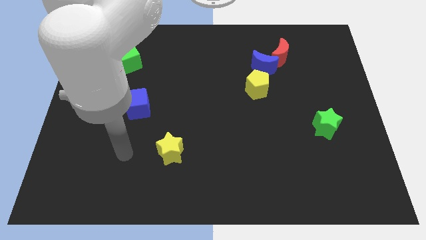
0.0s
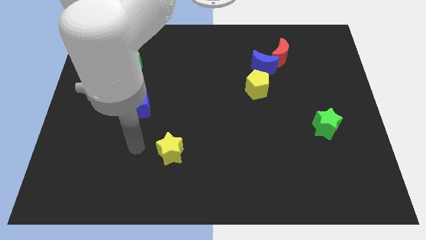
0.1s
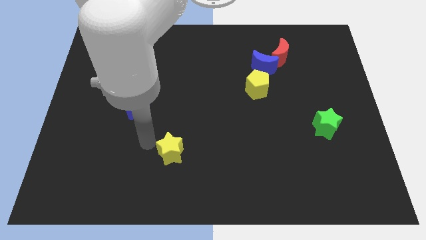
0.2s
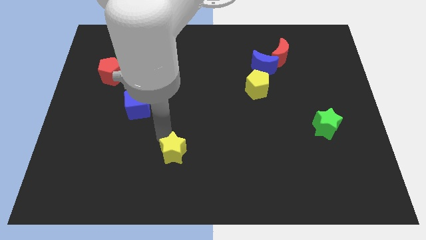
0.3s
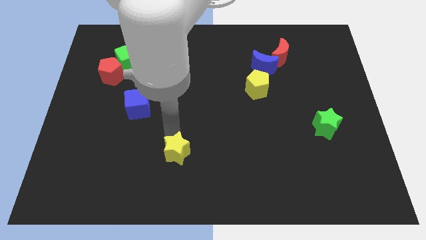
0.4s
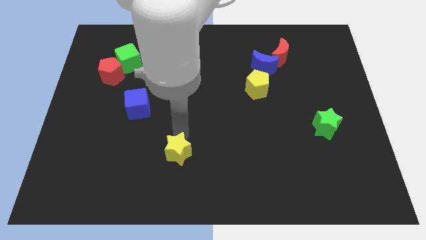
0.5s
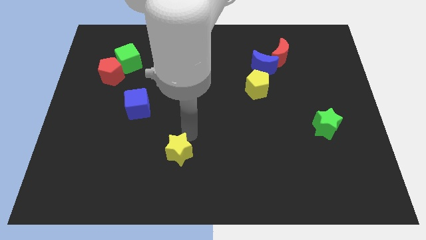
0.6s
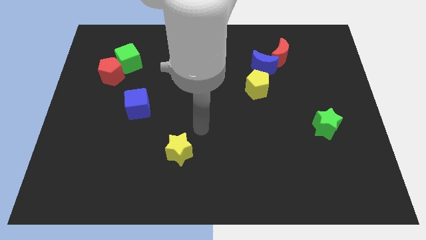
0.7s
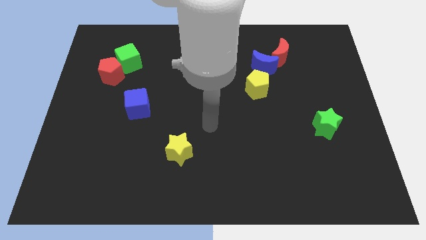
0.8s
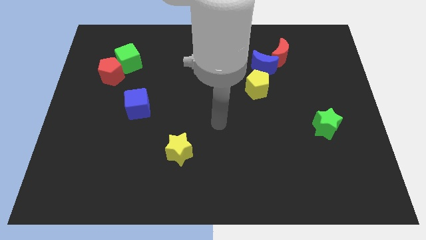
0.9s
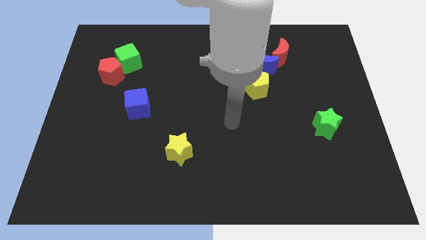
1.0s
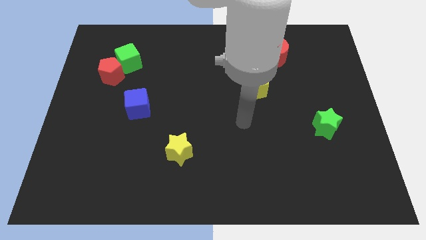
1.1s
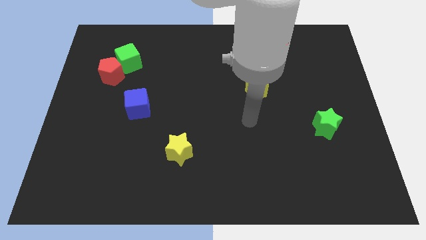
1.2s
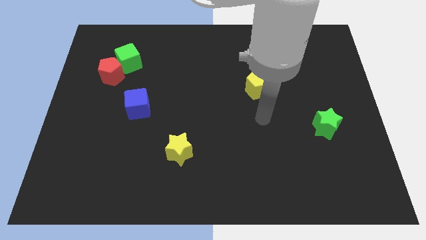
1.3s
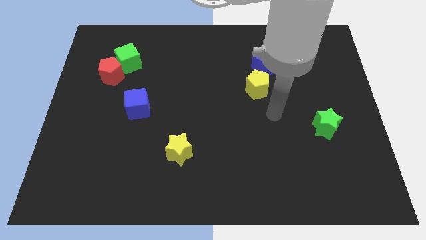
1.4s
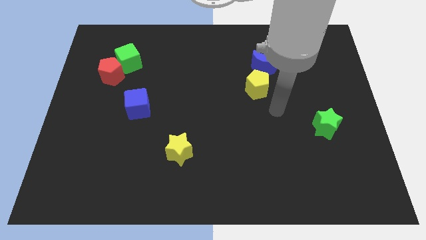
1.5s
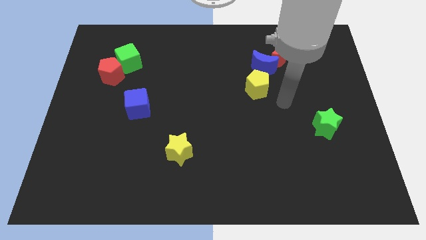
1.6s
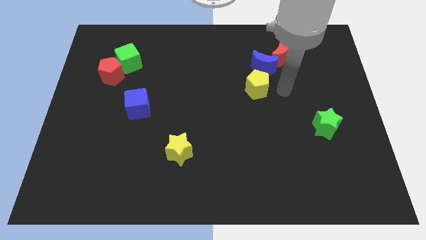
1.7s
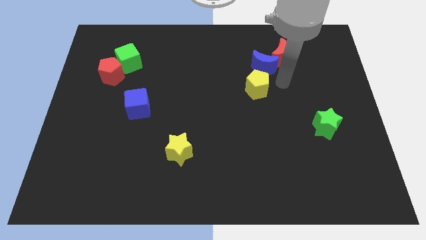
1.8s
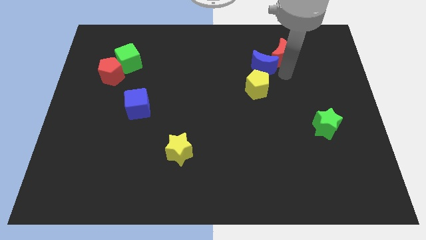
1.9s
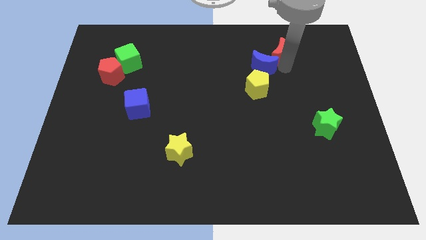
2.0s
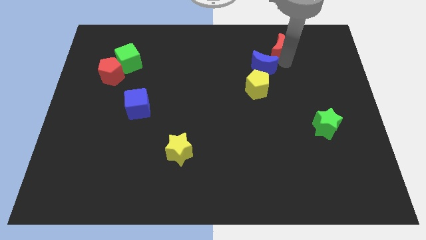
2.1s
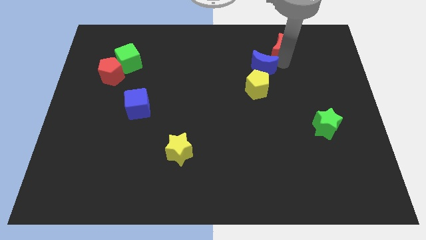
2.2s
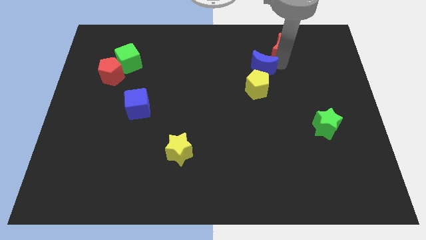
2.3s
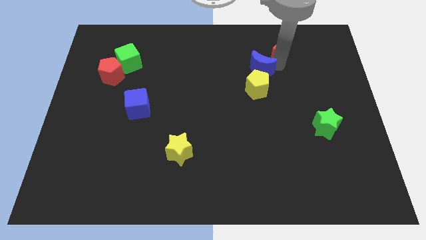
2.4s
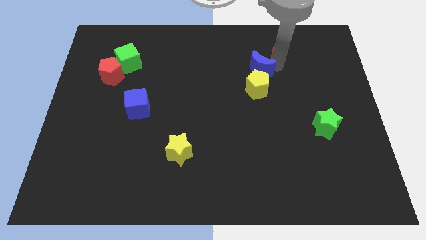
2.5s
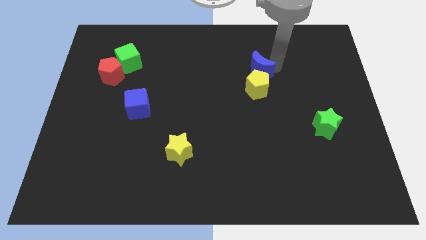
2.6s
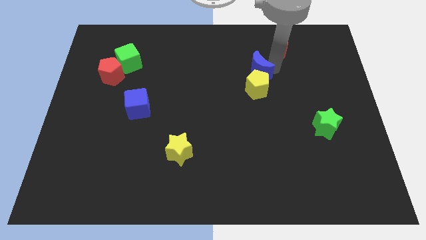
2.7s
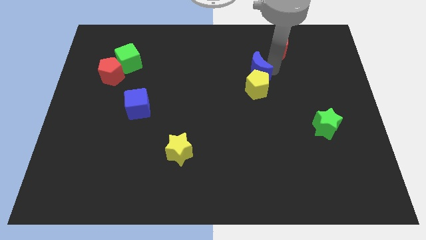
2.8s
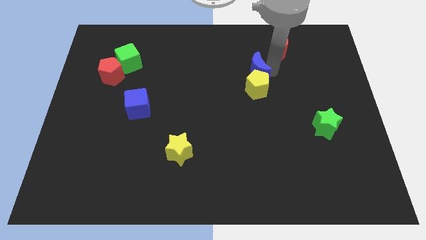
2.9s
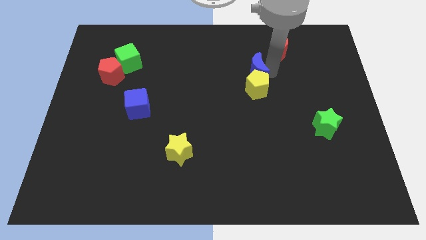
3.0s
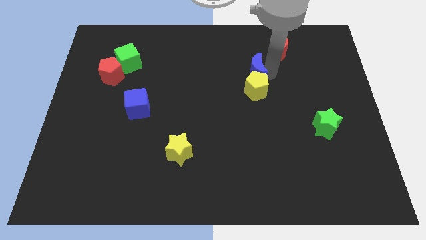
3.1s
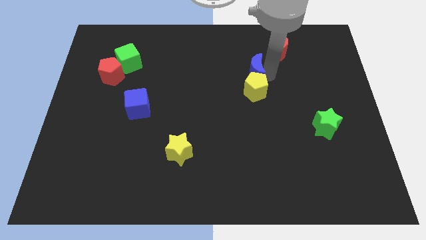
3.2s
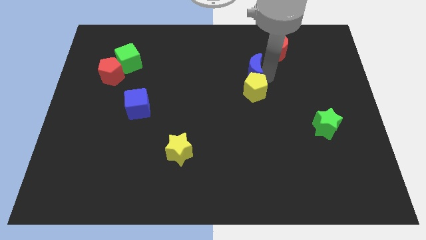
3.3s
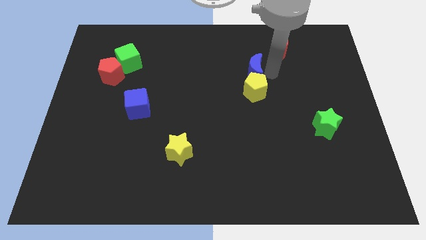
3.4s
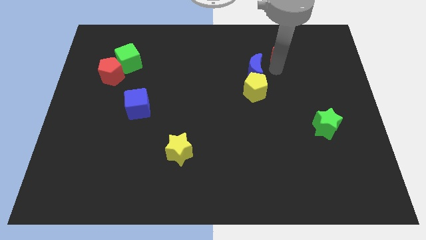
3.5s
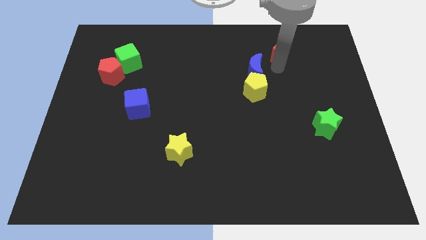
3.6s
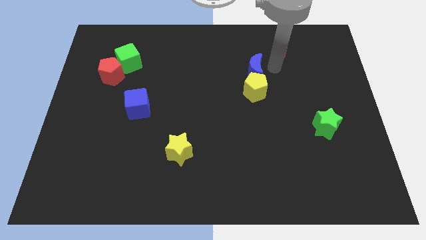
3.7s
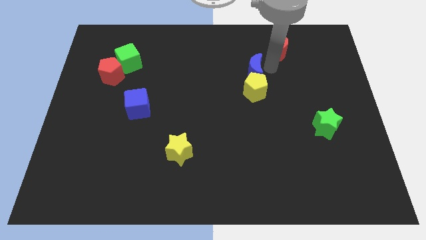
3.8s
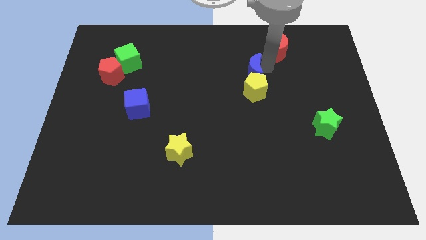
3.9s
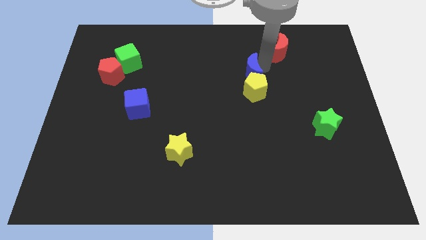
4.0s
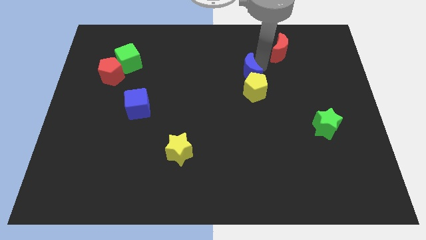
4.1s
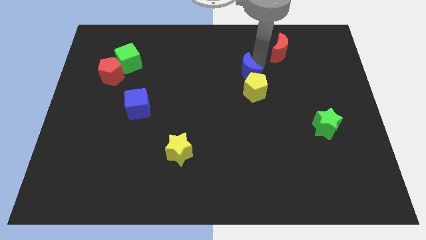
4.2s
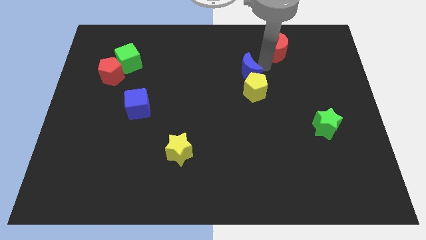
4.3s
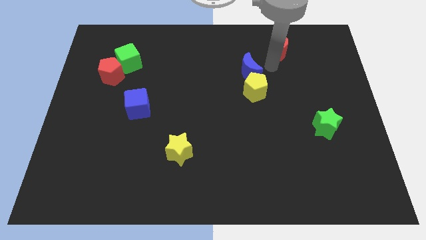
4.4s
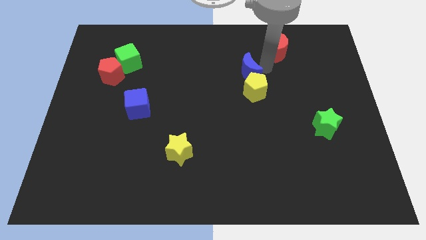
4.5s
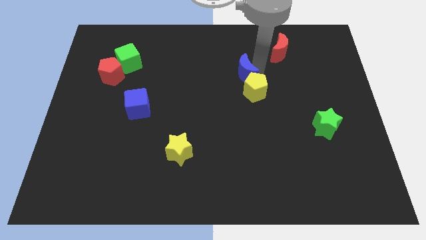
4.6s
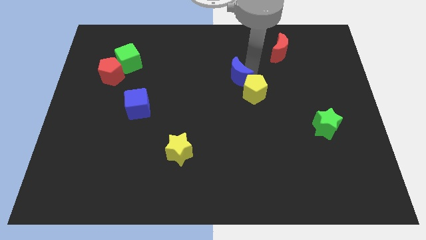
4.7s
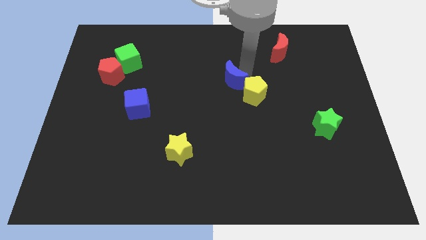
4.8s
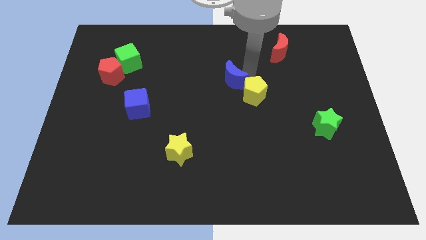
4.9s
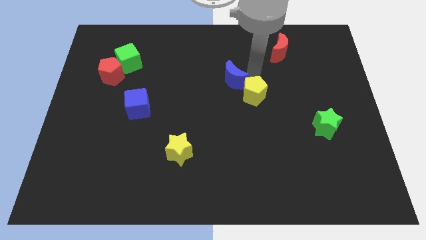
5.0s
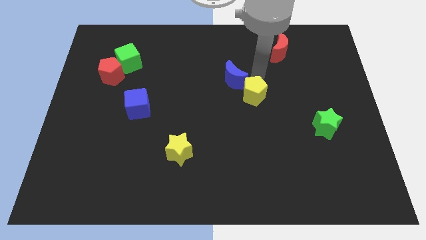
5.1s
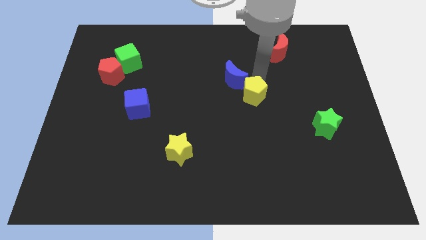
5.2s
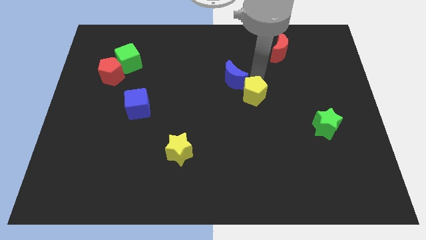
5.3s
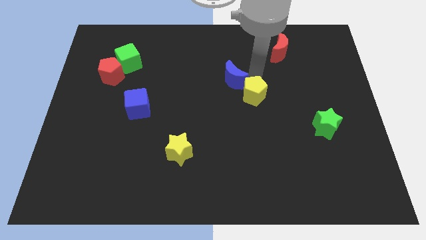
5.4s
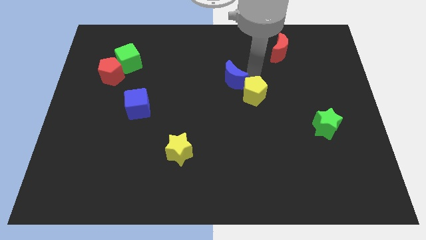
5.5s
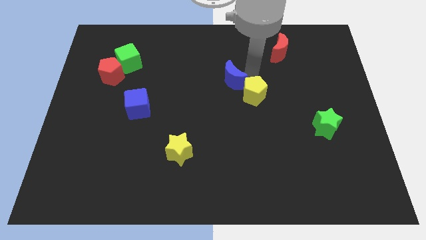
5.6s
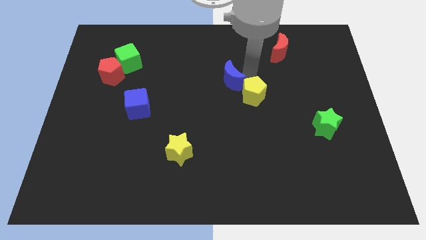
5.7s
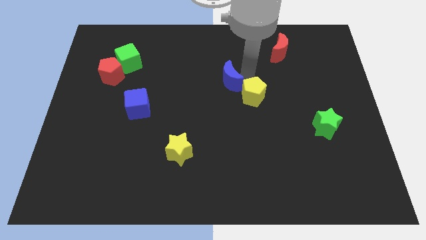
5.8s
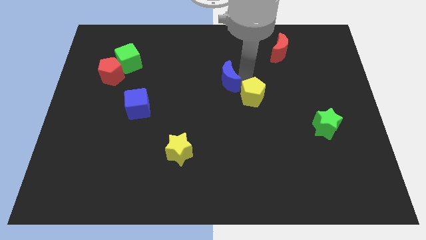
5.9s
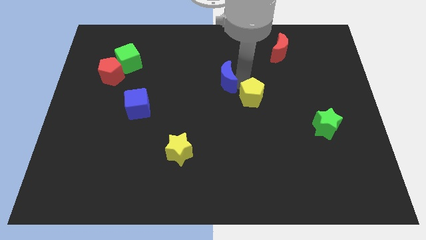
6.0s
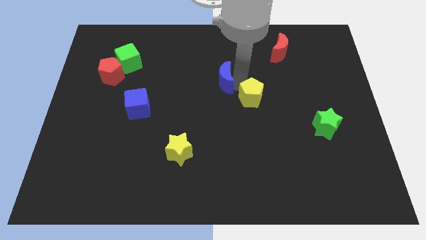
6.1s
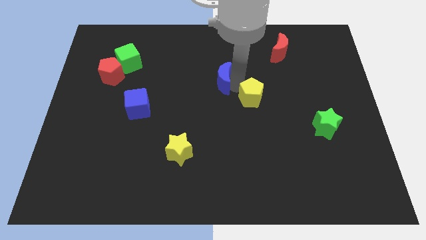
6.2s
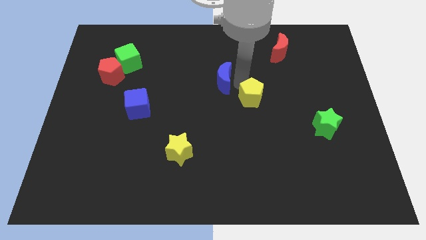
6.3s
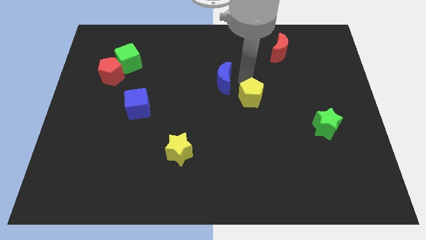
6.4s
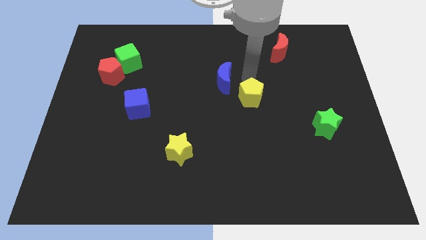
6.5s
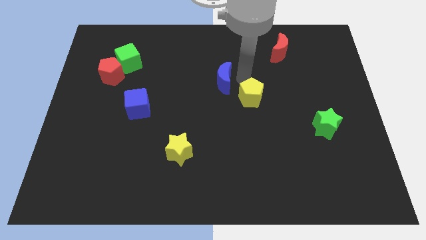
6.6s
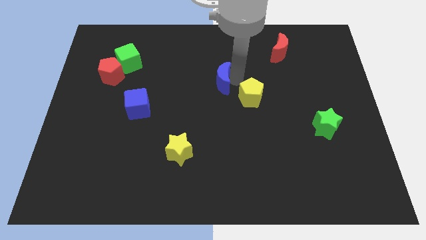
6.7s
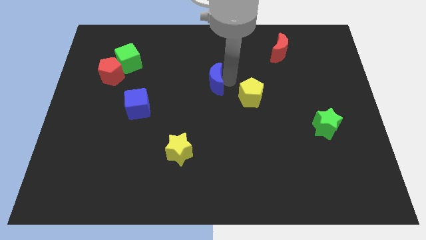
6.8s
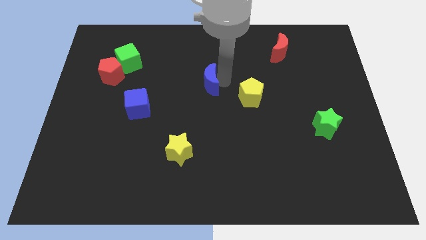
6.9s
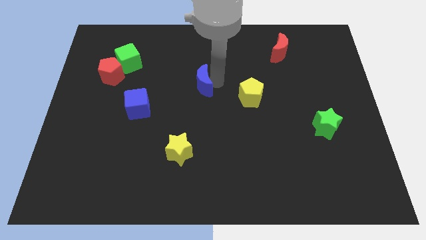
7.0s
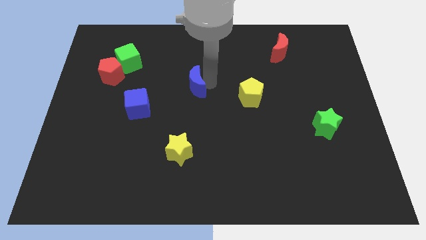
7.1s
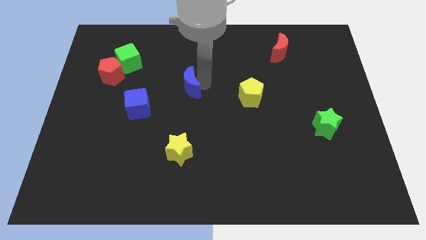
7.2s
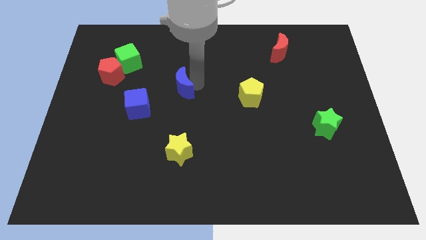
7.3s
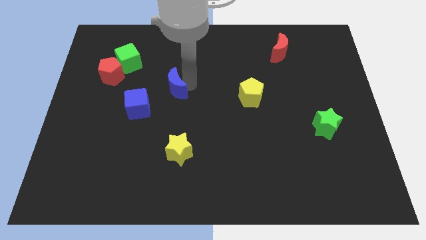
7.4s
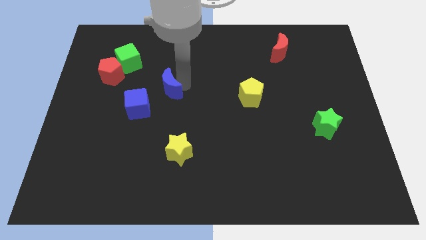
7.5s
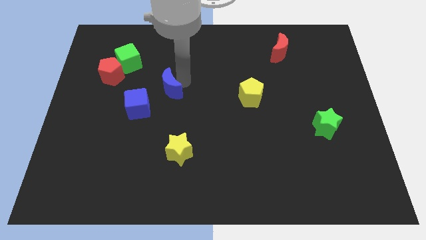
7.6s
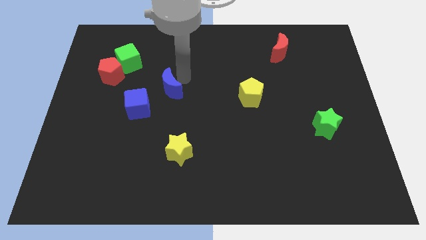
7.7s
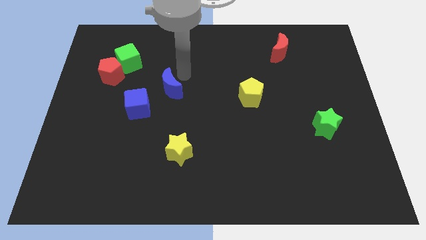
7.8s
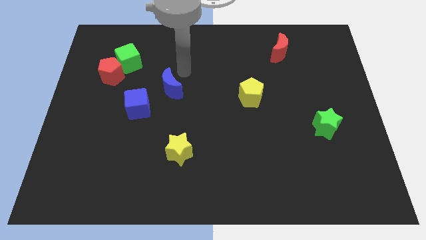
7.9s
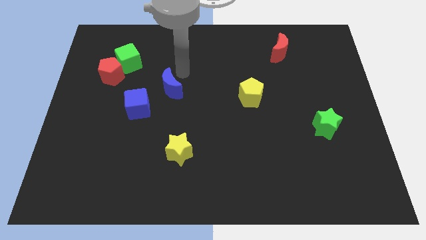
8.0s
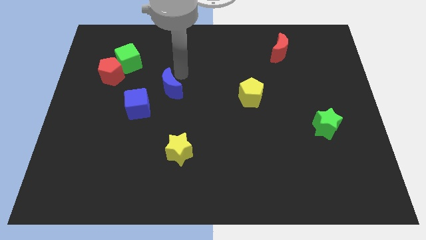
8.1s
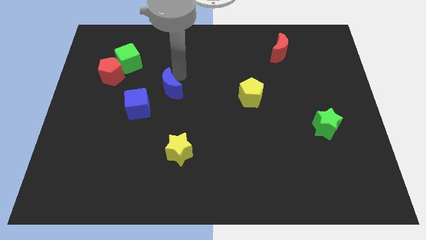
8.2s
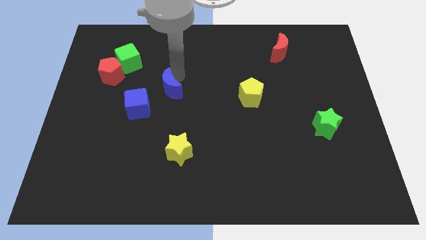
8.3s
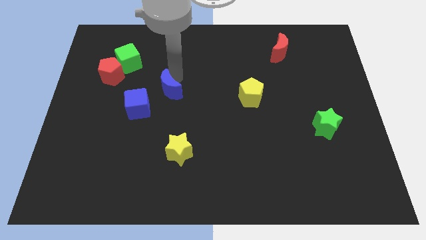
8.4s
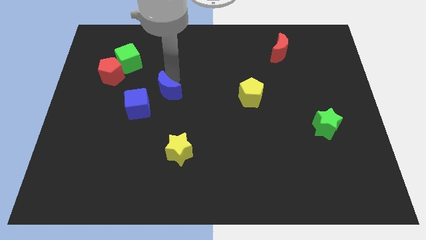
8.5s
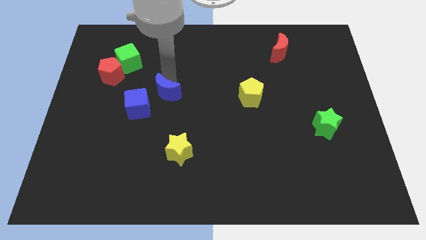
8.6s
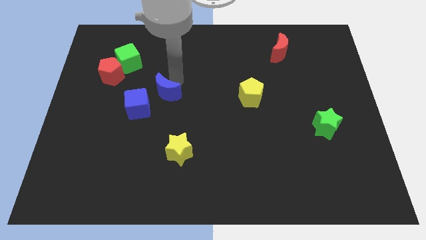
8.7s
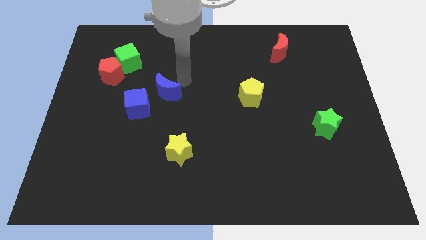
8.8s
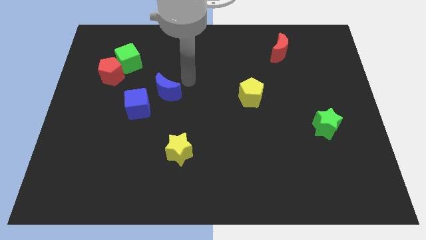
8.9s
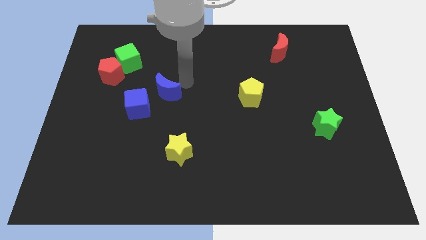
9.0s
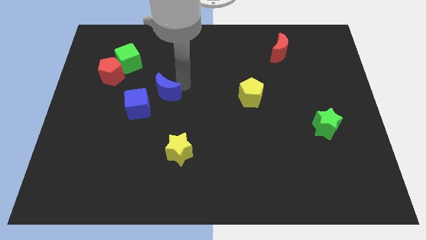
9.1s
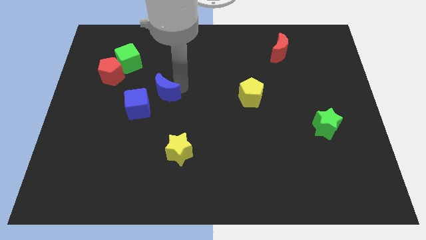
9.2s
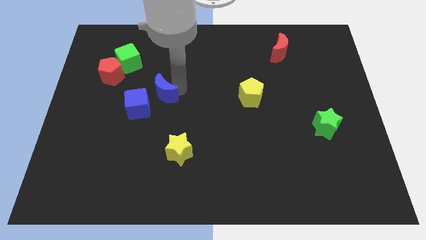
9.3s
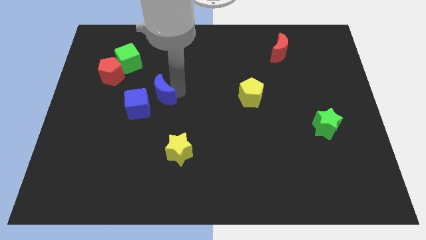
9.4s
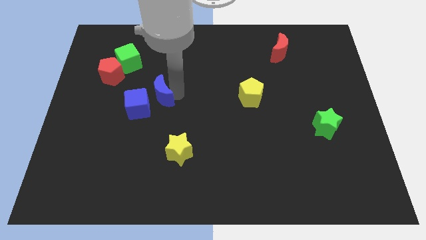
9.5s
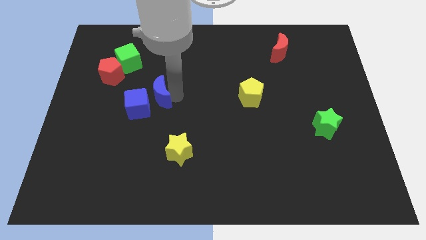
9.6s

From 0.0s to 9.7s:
move the blue moon to the blue cube
